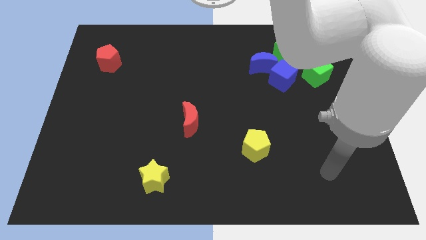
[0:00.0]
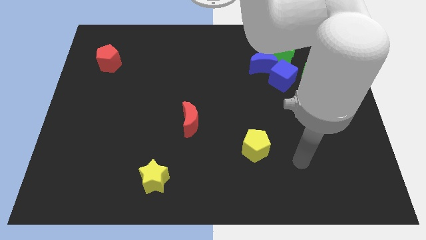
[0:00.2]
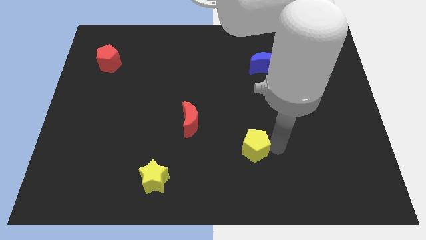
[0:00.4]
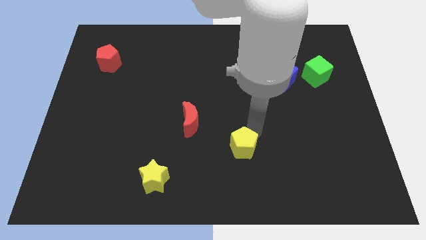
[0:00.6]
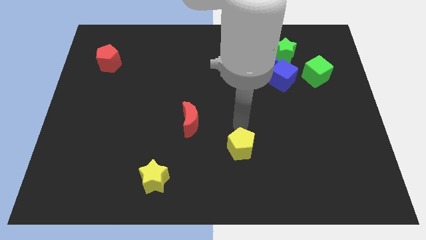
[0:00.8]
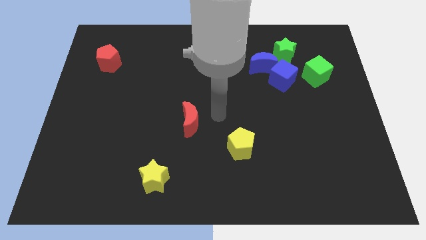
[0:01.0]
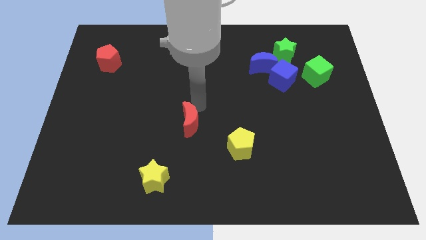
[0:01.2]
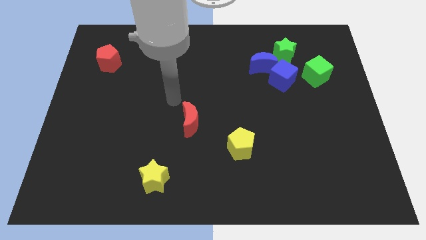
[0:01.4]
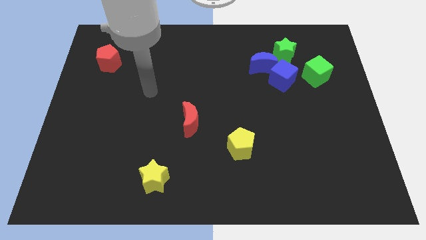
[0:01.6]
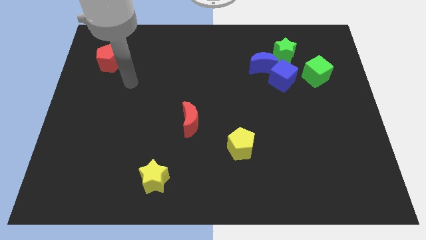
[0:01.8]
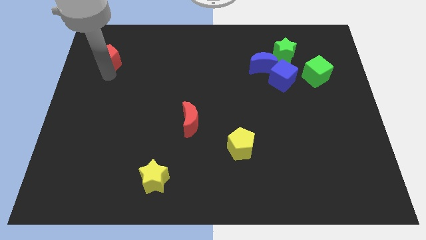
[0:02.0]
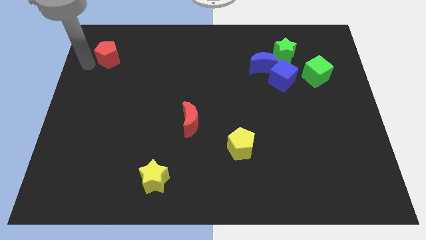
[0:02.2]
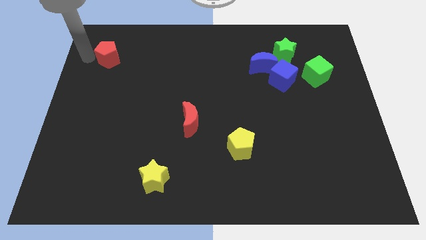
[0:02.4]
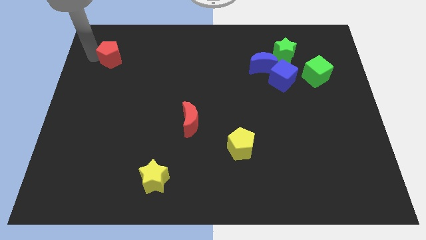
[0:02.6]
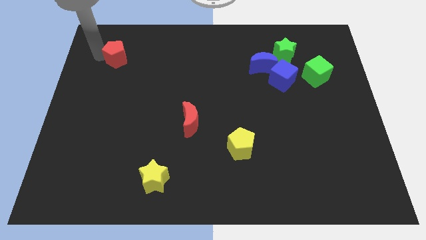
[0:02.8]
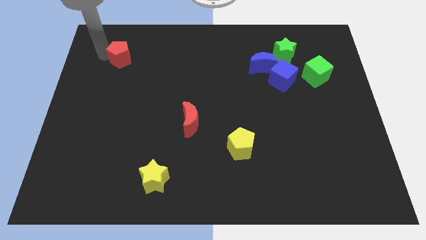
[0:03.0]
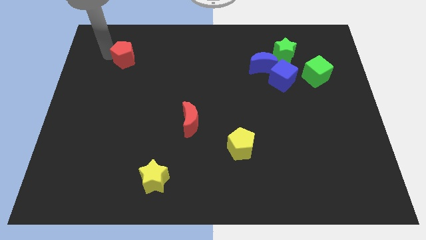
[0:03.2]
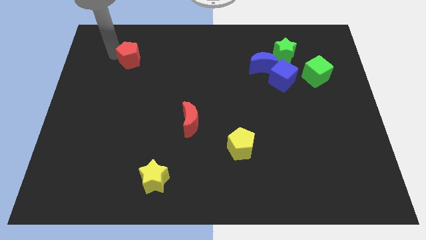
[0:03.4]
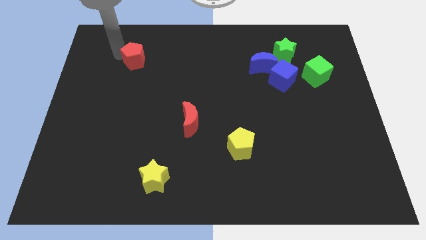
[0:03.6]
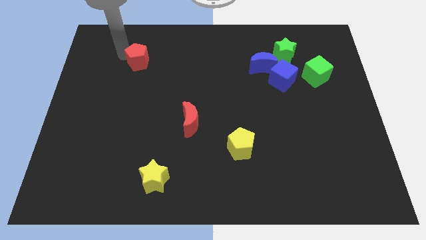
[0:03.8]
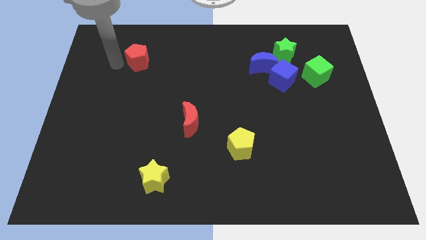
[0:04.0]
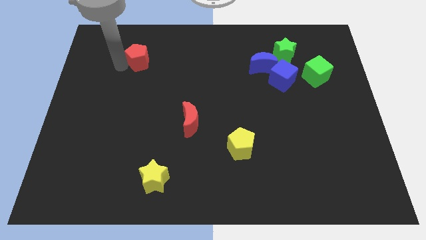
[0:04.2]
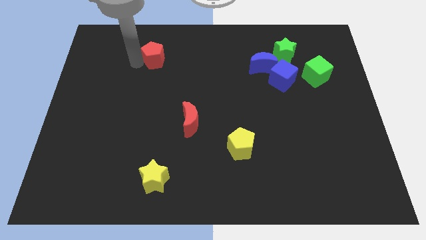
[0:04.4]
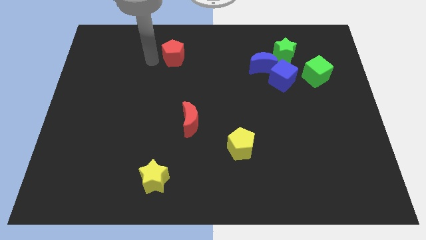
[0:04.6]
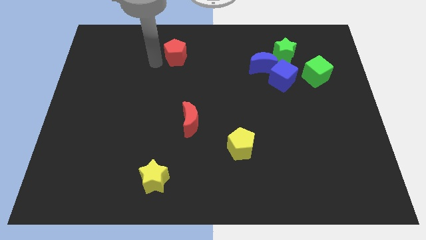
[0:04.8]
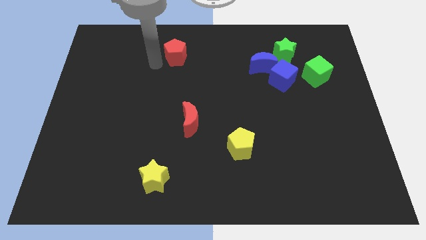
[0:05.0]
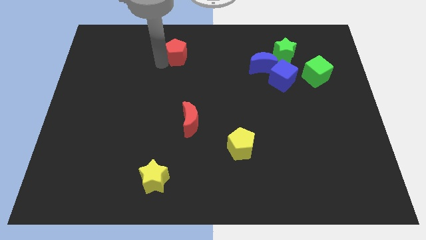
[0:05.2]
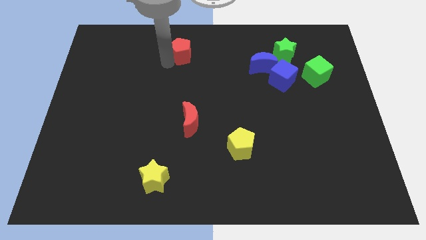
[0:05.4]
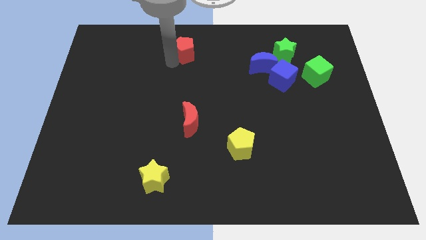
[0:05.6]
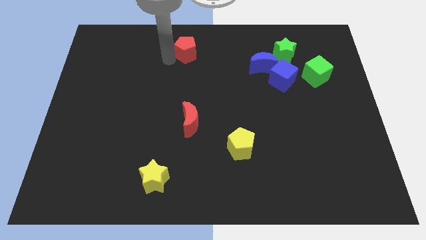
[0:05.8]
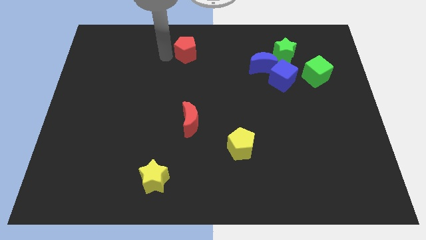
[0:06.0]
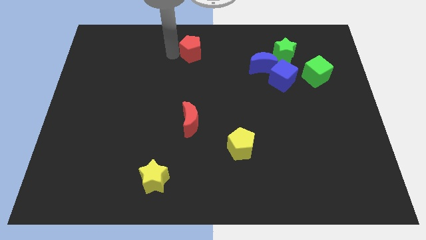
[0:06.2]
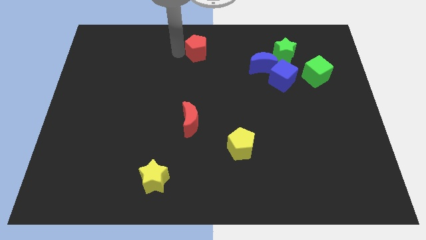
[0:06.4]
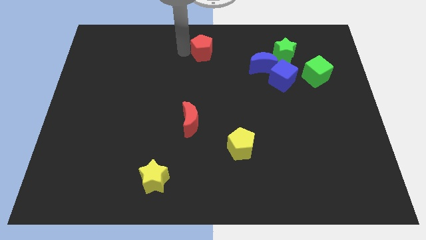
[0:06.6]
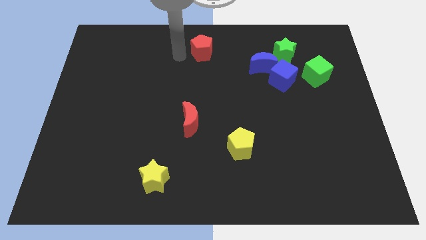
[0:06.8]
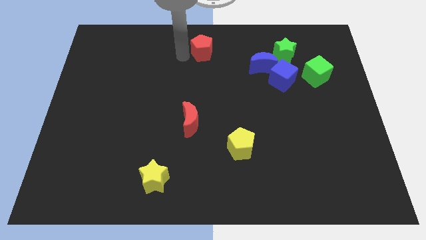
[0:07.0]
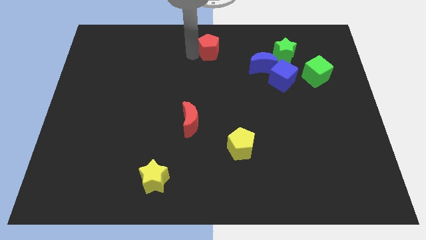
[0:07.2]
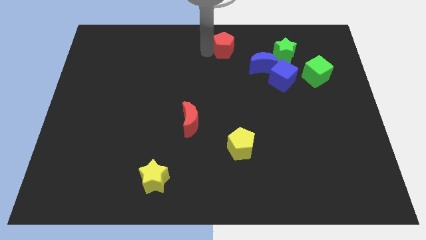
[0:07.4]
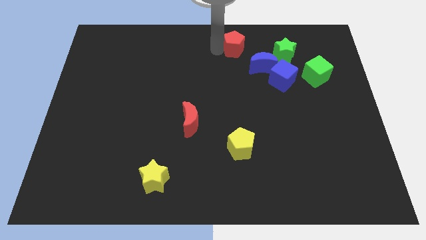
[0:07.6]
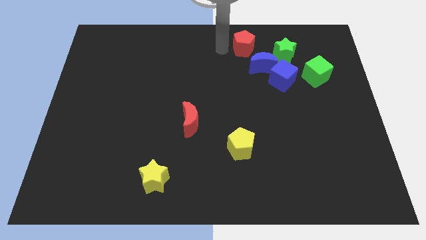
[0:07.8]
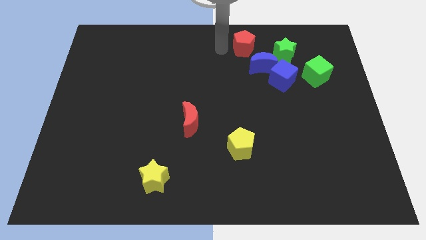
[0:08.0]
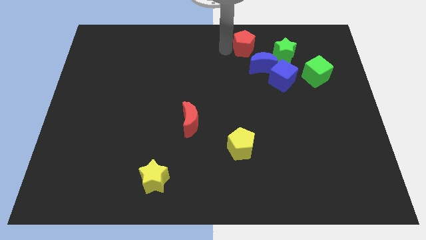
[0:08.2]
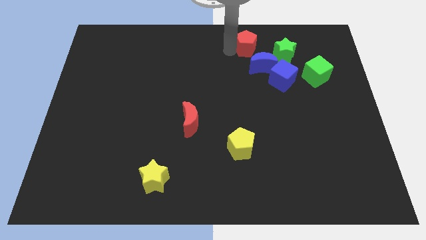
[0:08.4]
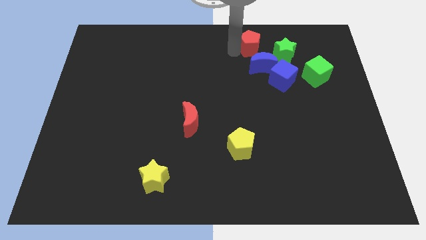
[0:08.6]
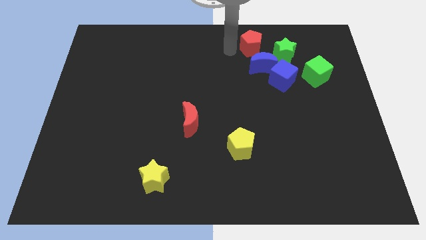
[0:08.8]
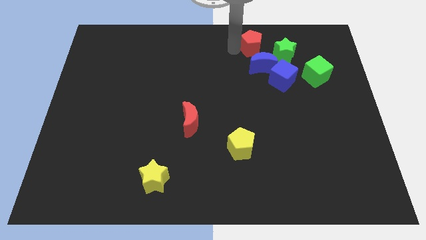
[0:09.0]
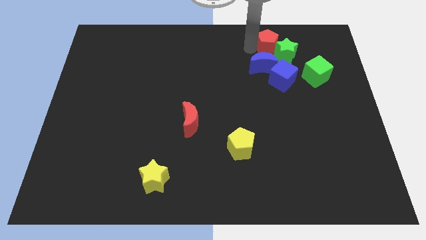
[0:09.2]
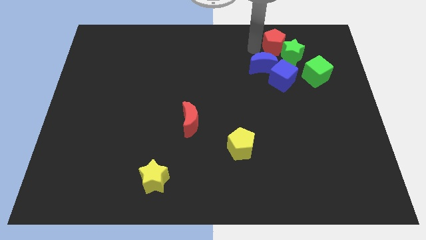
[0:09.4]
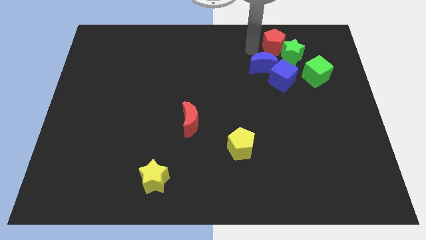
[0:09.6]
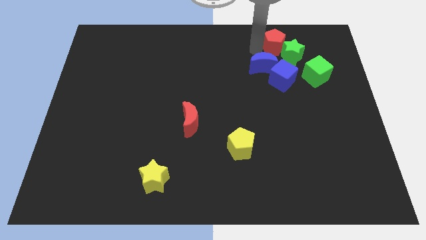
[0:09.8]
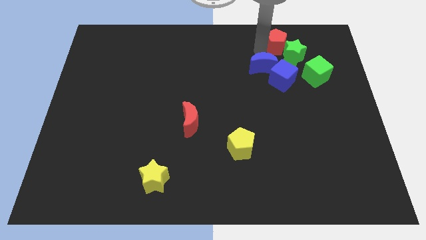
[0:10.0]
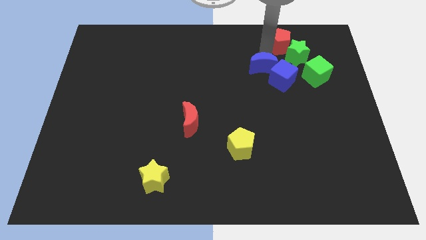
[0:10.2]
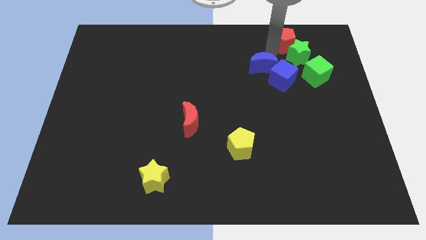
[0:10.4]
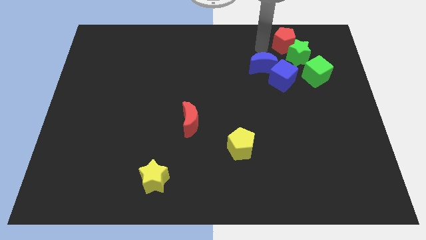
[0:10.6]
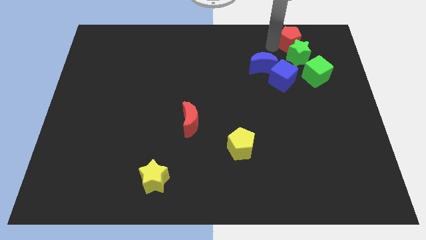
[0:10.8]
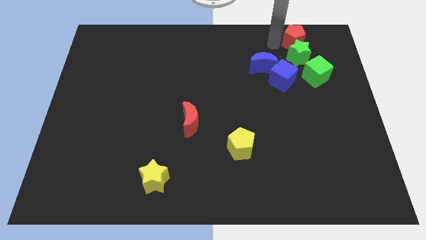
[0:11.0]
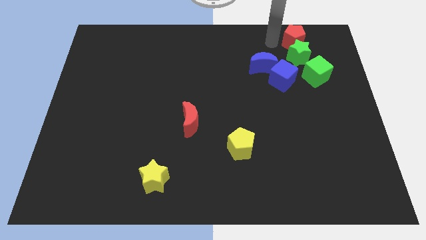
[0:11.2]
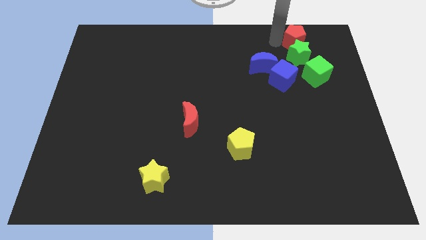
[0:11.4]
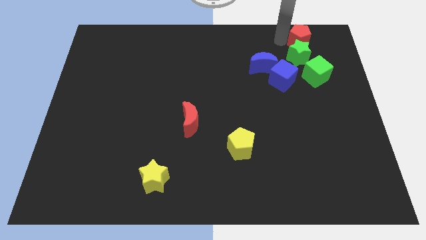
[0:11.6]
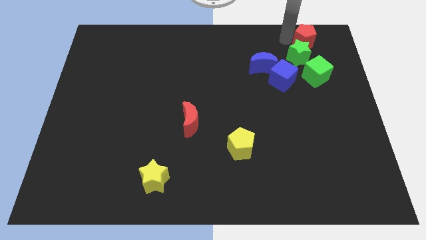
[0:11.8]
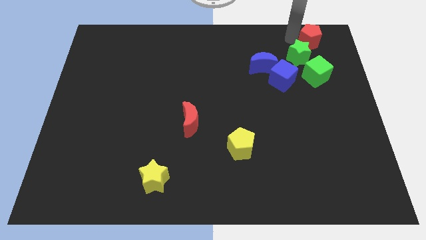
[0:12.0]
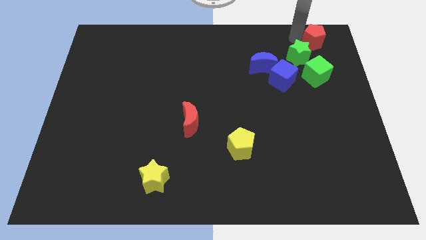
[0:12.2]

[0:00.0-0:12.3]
push the red pentagon to the top right corner

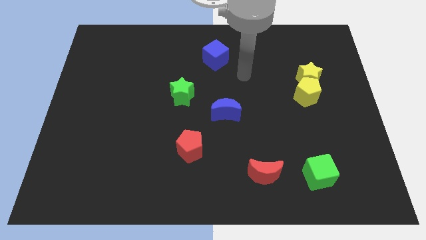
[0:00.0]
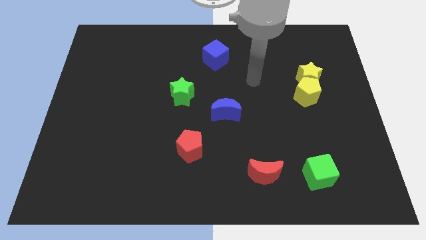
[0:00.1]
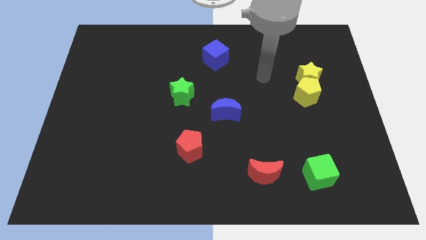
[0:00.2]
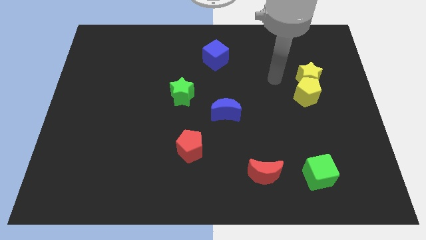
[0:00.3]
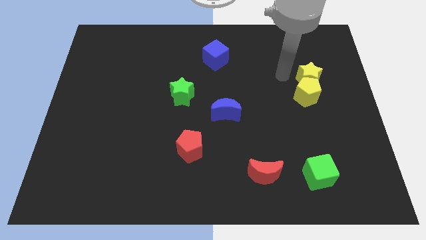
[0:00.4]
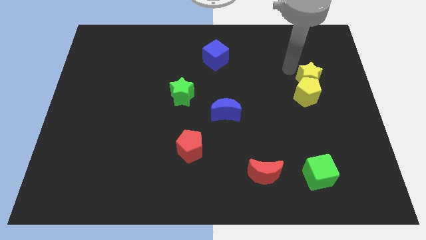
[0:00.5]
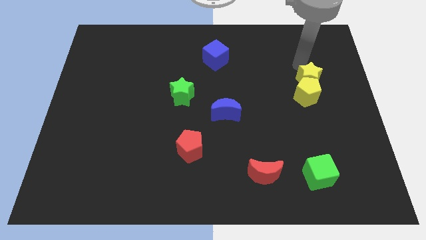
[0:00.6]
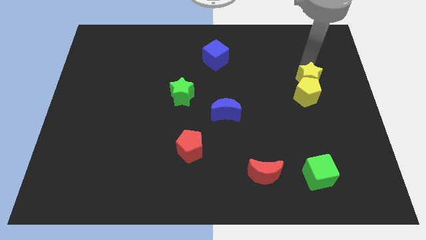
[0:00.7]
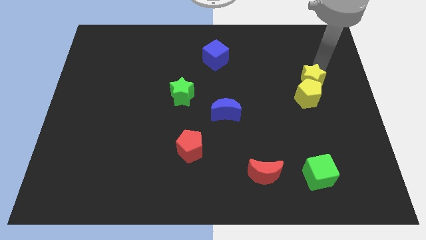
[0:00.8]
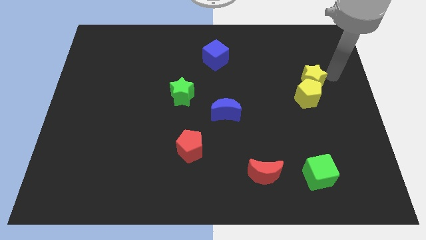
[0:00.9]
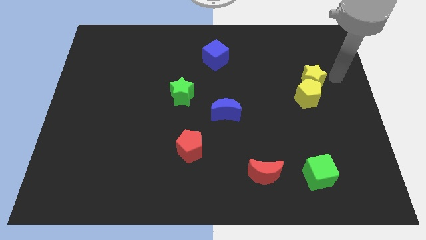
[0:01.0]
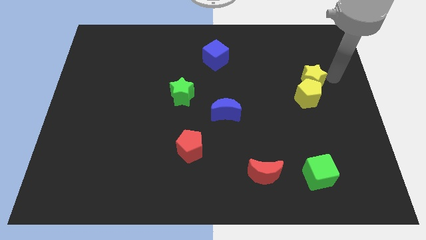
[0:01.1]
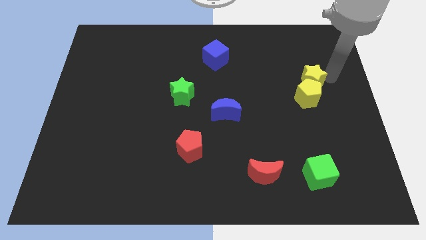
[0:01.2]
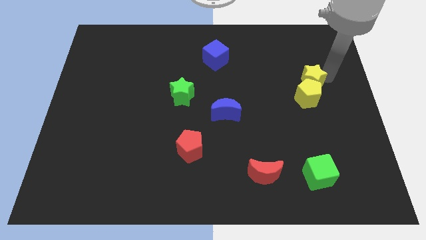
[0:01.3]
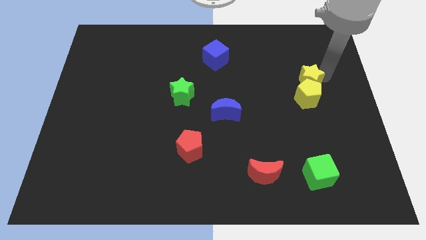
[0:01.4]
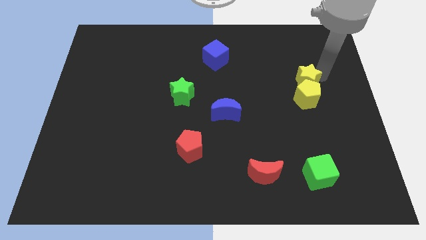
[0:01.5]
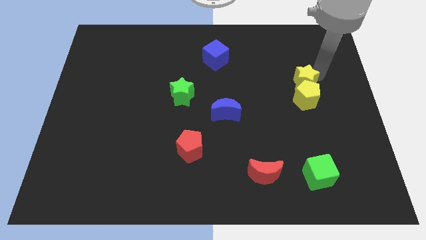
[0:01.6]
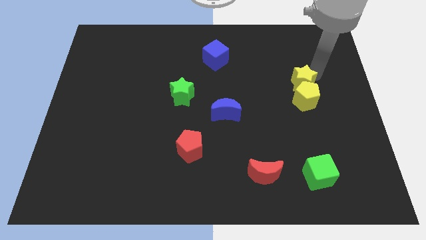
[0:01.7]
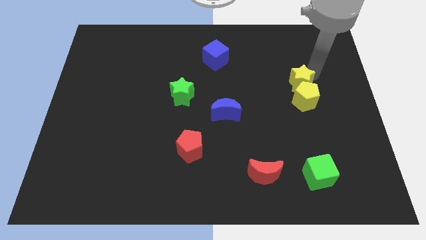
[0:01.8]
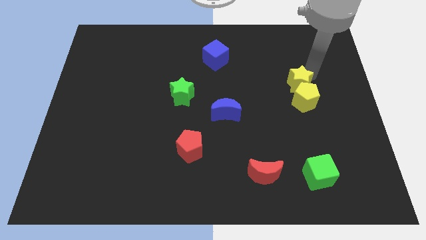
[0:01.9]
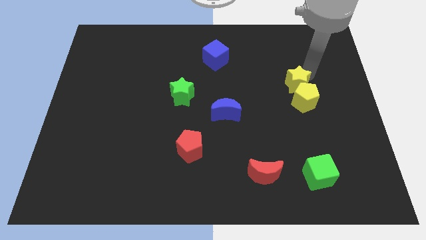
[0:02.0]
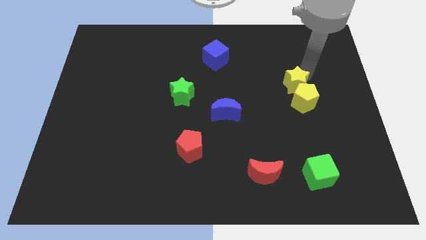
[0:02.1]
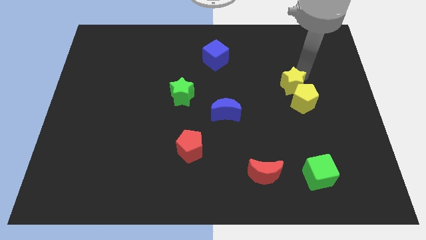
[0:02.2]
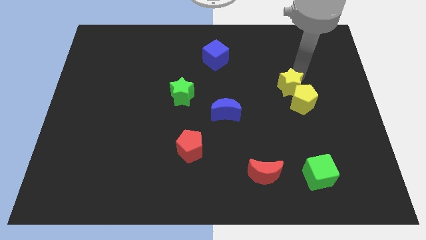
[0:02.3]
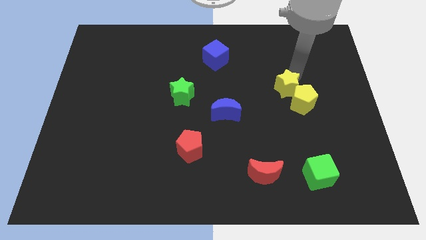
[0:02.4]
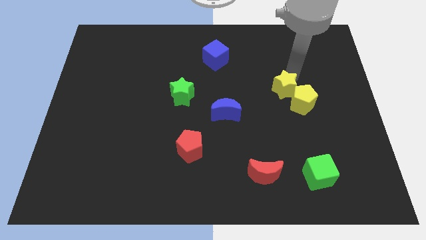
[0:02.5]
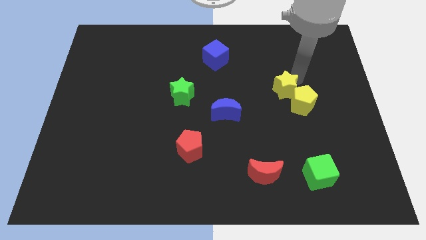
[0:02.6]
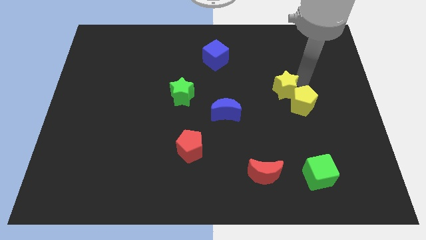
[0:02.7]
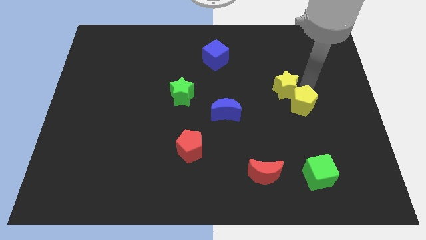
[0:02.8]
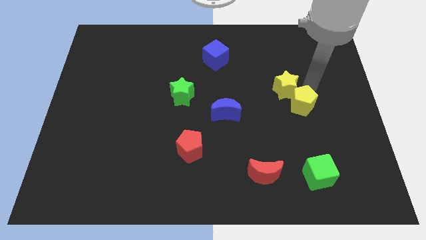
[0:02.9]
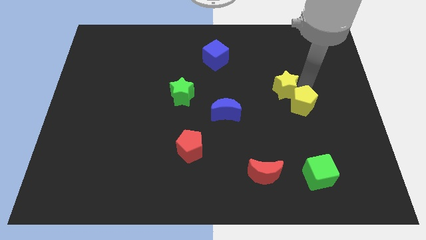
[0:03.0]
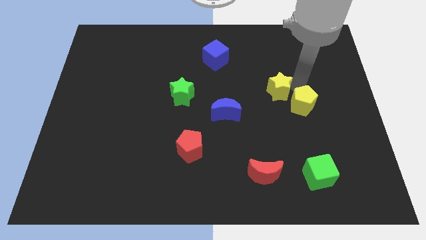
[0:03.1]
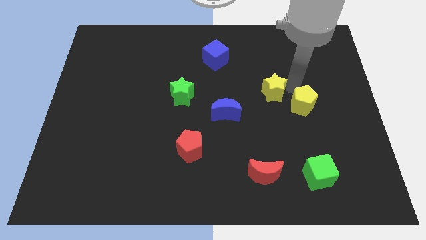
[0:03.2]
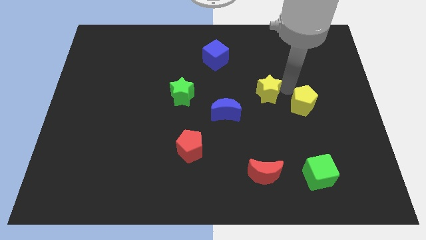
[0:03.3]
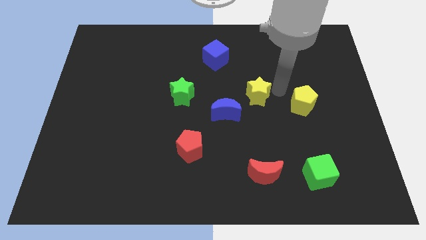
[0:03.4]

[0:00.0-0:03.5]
slide the yellow star to the center
